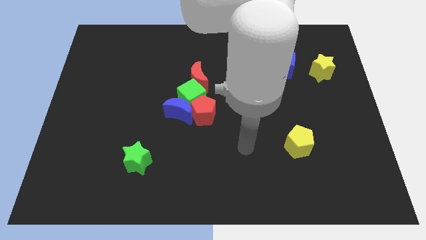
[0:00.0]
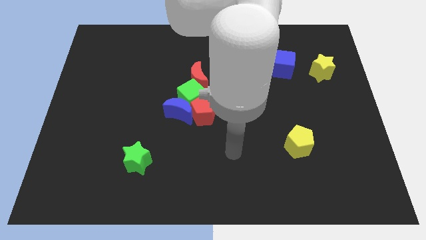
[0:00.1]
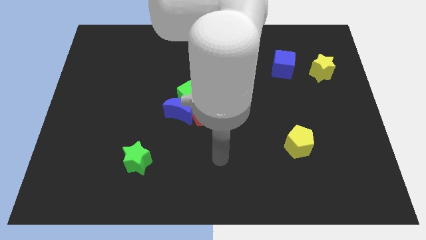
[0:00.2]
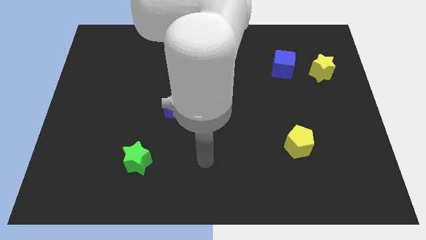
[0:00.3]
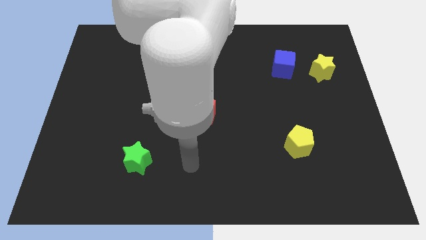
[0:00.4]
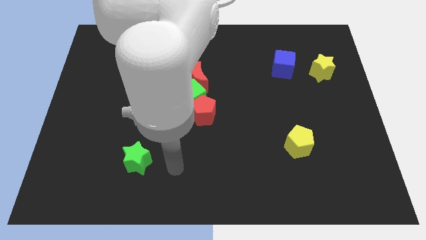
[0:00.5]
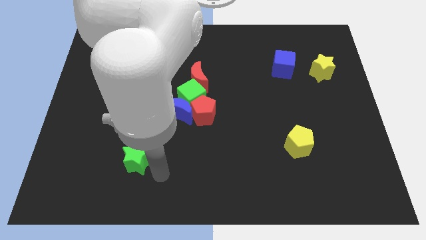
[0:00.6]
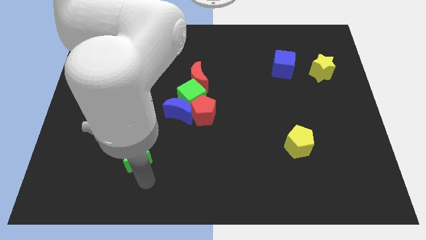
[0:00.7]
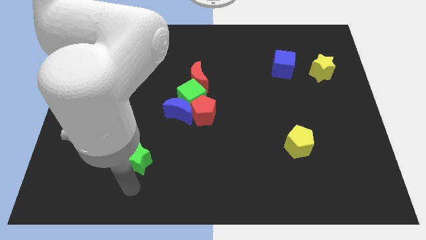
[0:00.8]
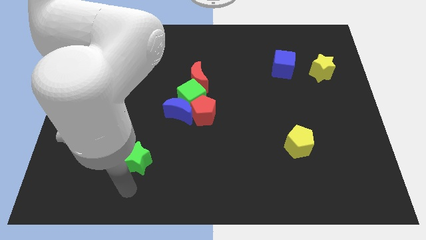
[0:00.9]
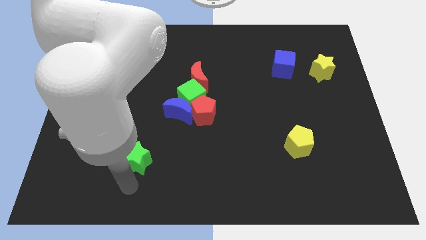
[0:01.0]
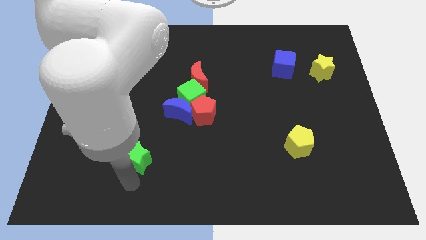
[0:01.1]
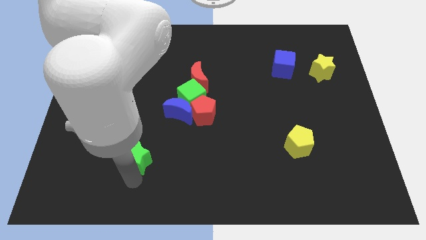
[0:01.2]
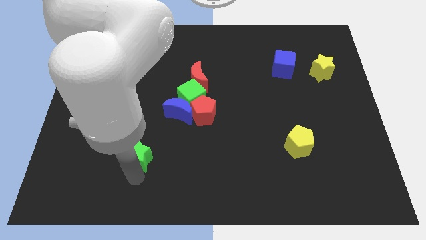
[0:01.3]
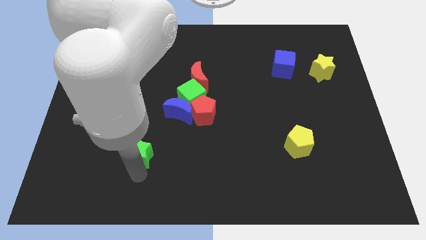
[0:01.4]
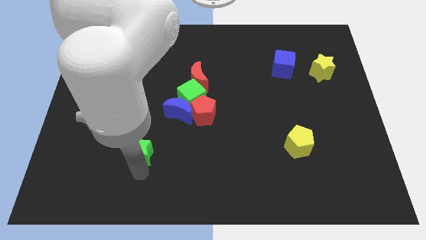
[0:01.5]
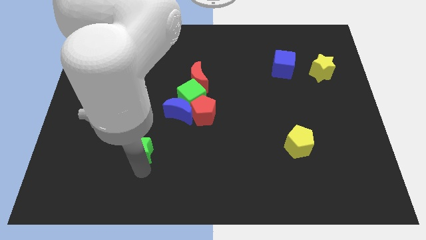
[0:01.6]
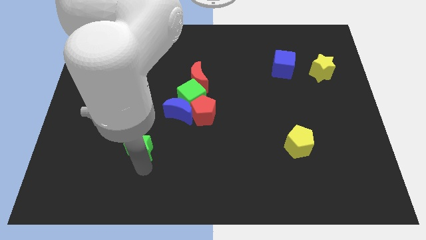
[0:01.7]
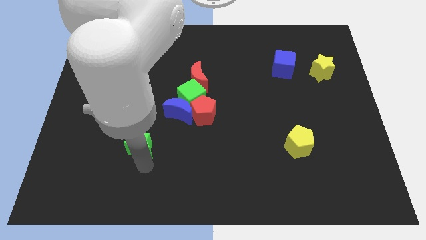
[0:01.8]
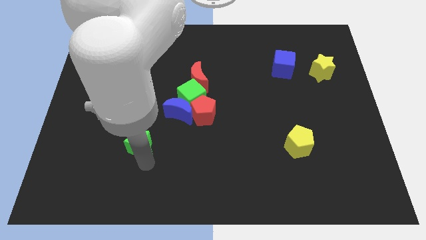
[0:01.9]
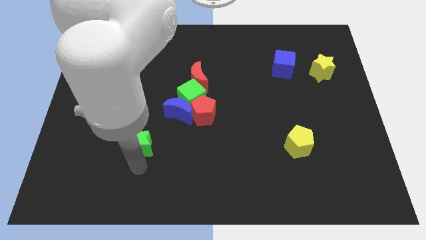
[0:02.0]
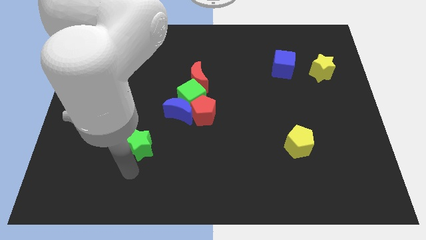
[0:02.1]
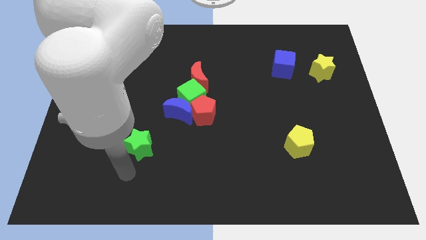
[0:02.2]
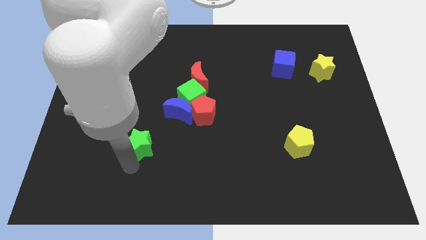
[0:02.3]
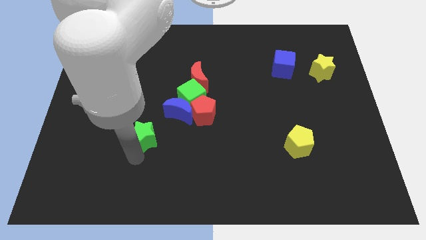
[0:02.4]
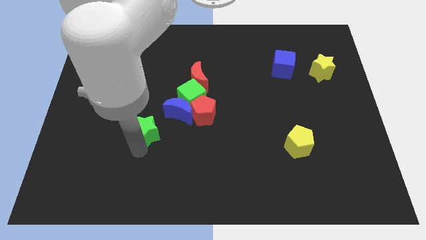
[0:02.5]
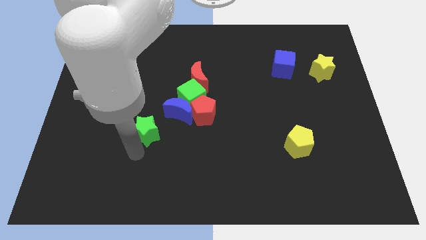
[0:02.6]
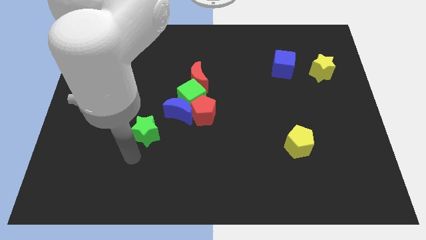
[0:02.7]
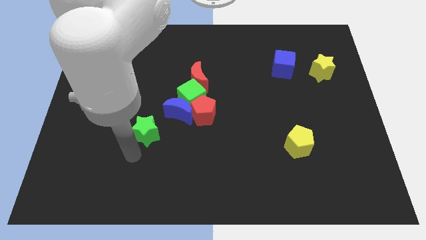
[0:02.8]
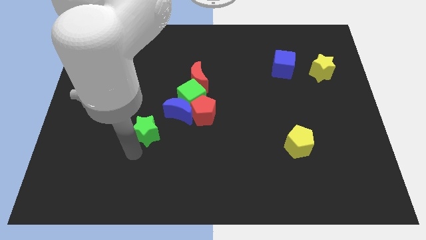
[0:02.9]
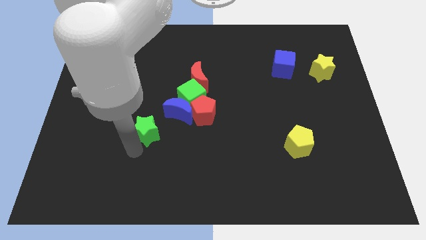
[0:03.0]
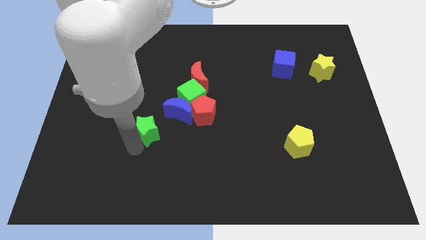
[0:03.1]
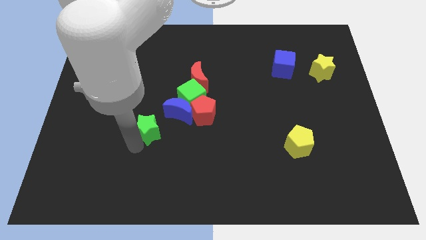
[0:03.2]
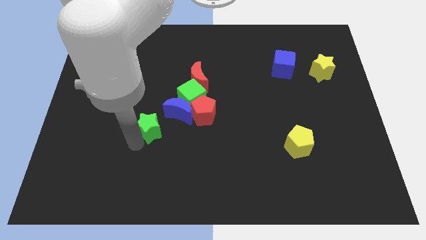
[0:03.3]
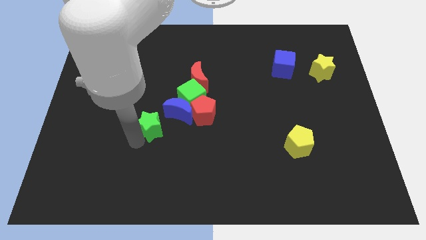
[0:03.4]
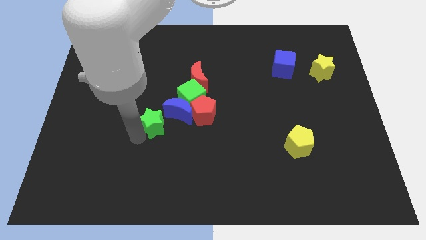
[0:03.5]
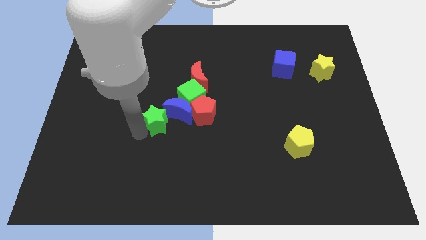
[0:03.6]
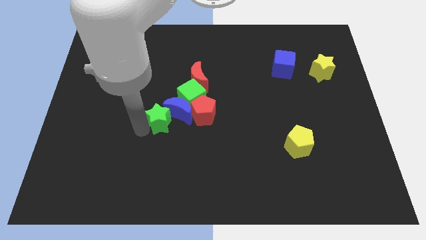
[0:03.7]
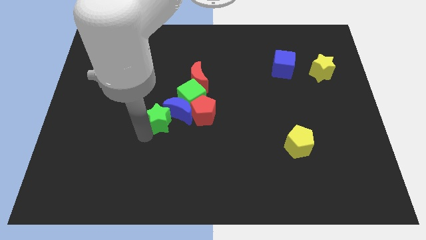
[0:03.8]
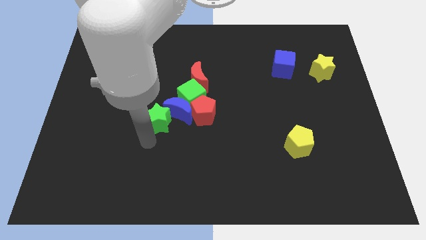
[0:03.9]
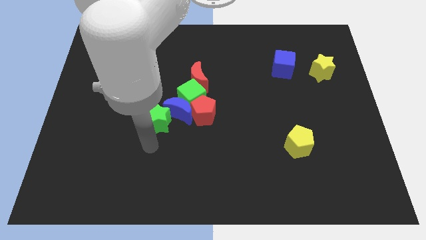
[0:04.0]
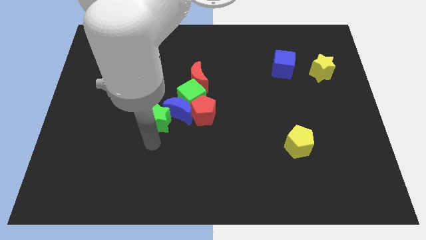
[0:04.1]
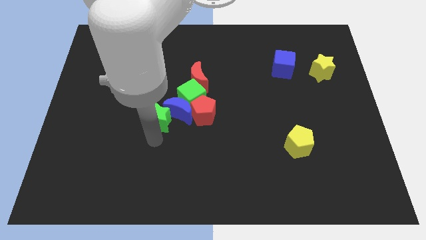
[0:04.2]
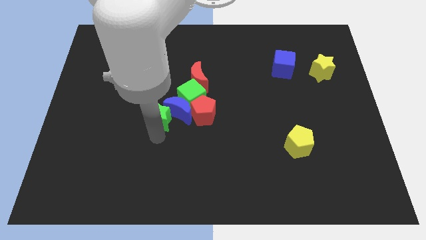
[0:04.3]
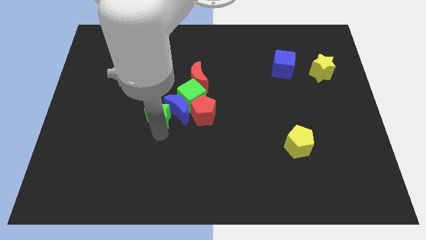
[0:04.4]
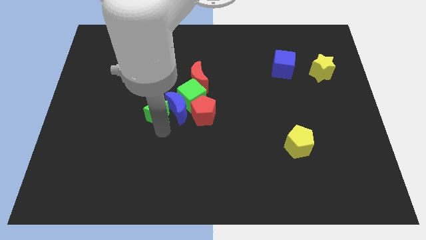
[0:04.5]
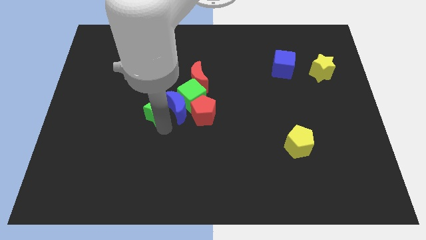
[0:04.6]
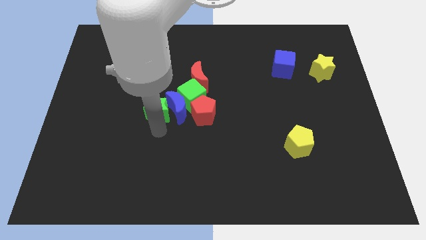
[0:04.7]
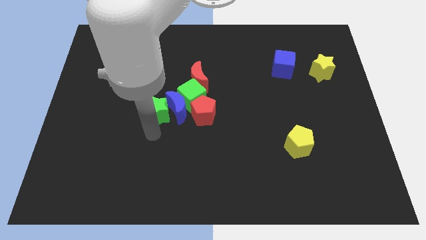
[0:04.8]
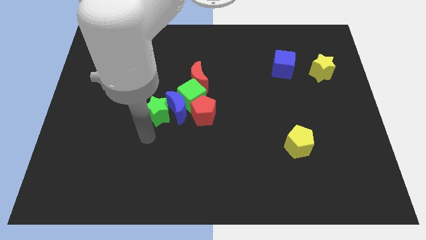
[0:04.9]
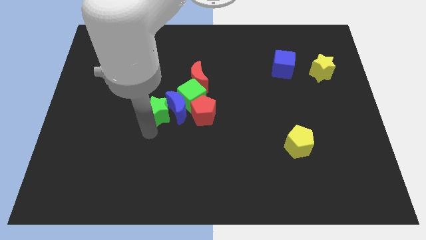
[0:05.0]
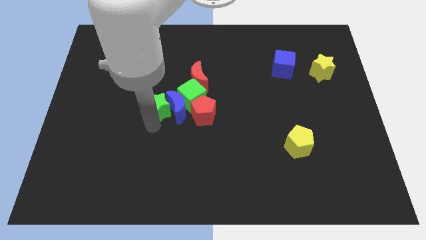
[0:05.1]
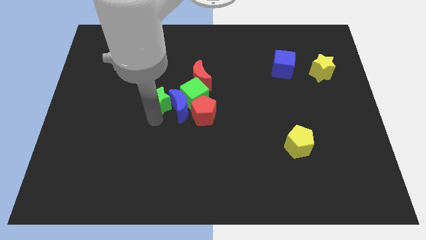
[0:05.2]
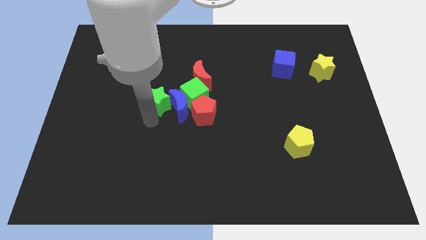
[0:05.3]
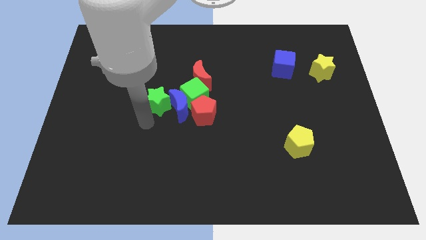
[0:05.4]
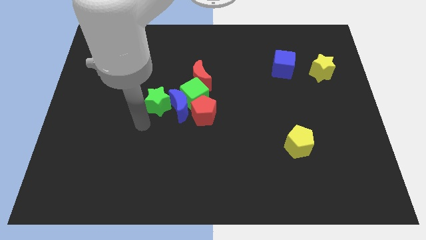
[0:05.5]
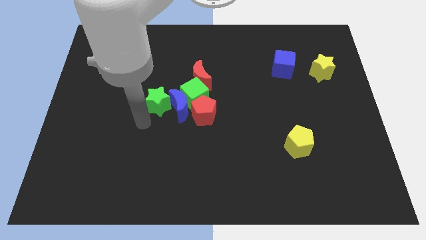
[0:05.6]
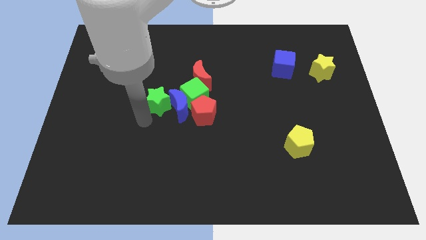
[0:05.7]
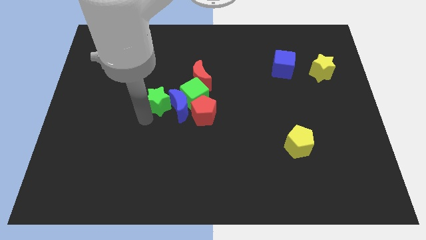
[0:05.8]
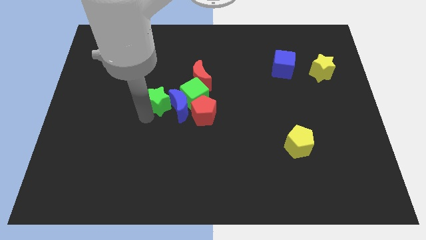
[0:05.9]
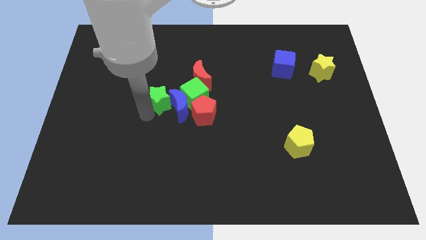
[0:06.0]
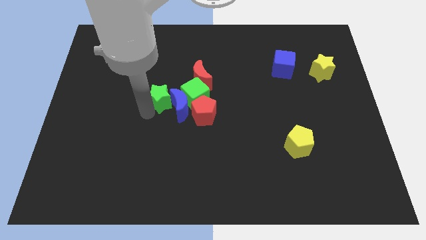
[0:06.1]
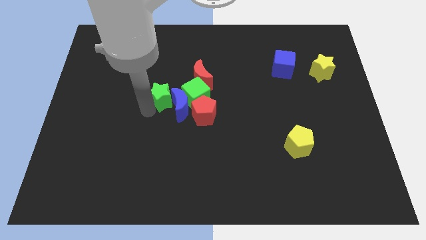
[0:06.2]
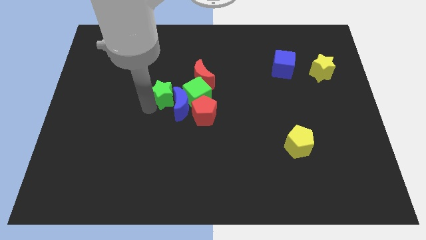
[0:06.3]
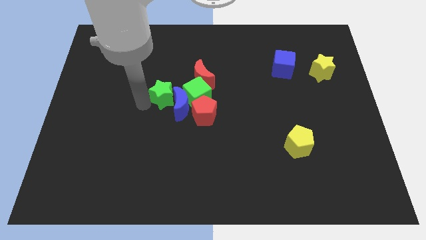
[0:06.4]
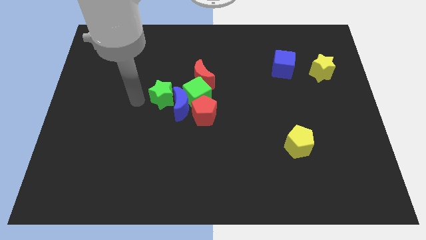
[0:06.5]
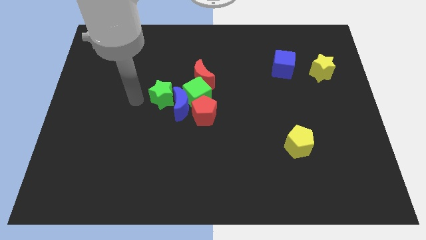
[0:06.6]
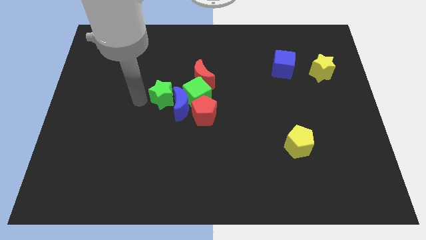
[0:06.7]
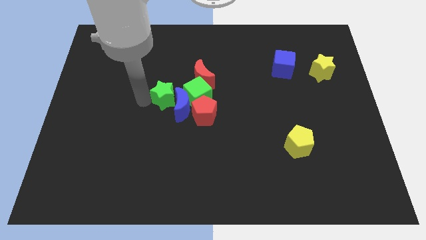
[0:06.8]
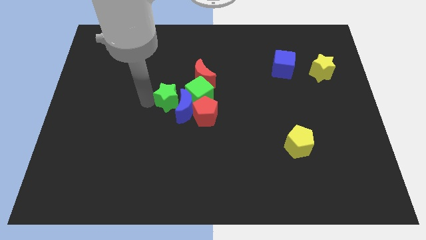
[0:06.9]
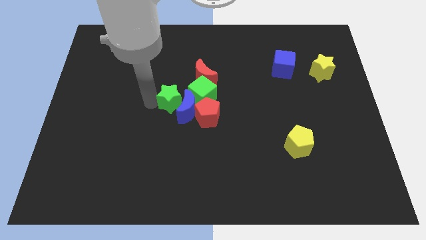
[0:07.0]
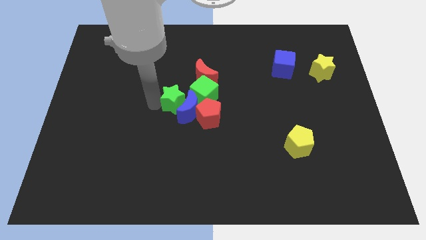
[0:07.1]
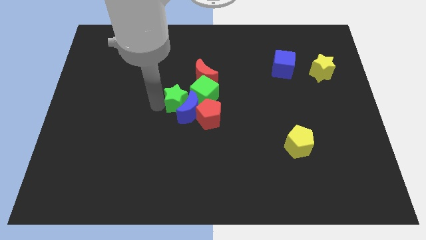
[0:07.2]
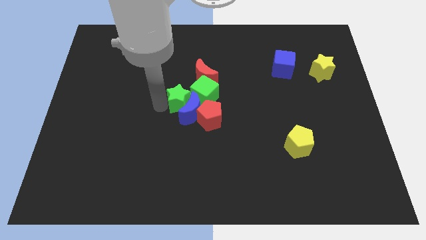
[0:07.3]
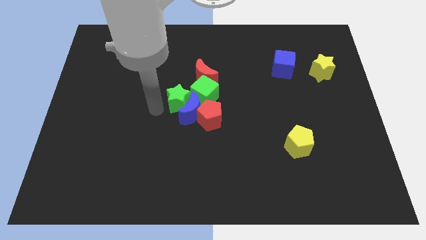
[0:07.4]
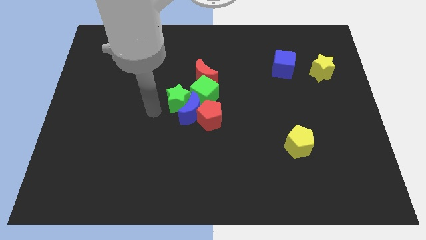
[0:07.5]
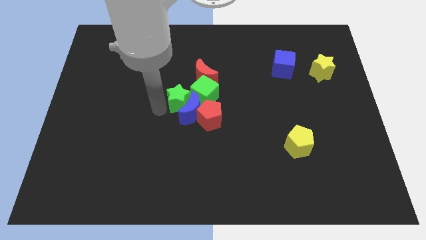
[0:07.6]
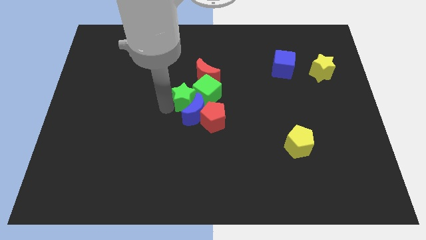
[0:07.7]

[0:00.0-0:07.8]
put the green star to the green cube
